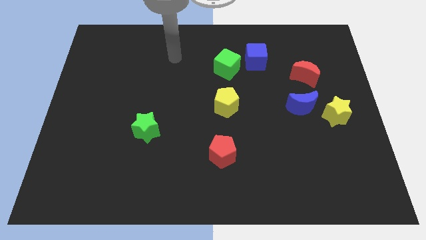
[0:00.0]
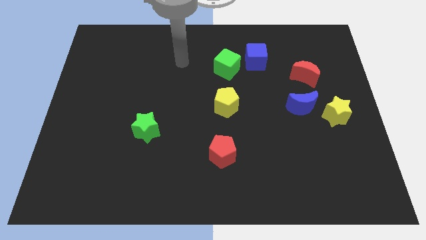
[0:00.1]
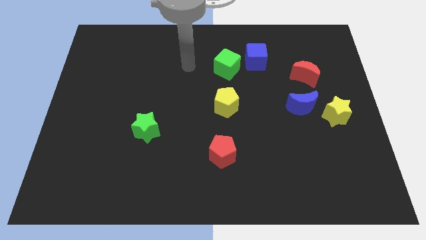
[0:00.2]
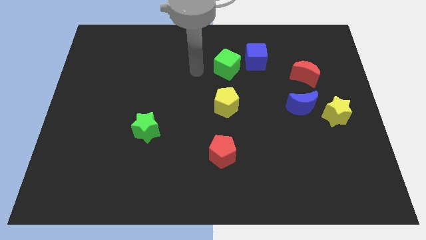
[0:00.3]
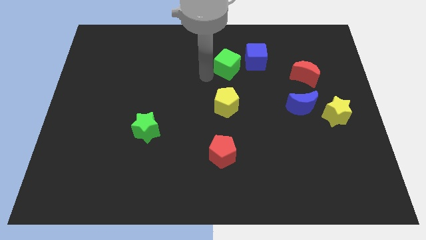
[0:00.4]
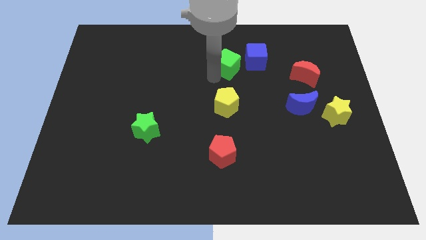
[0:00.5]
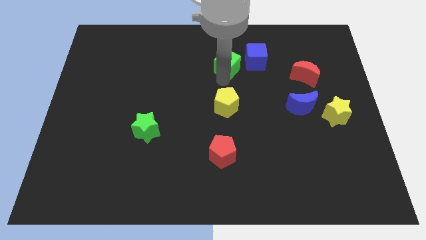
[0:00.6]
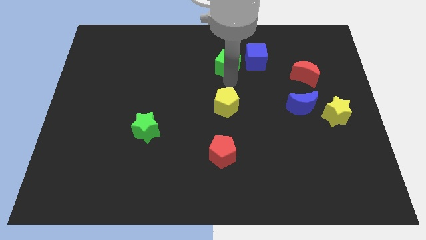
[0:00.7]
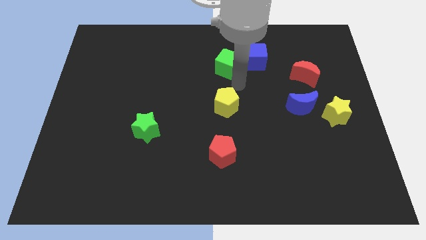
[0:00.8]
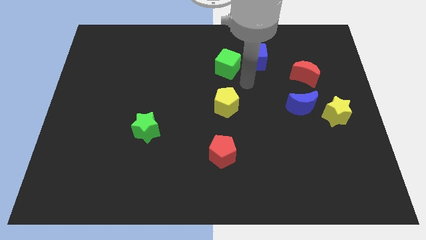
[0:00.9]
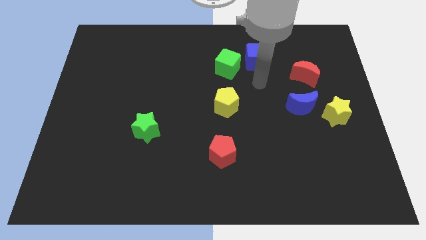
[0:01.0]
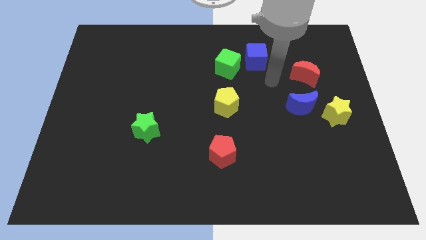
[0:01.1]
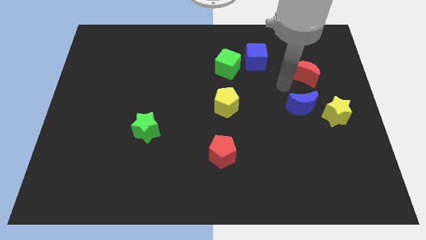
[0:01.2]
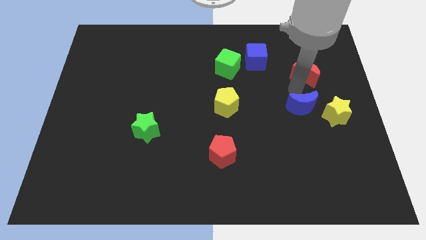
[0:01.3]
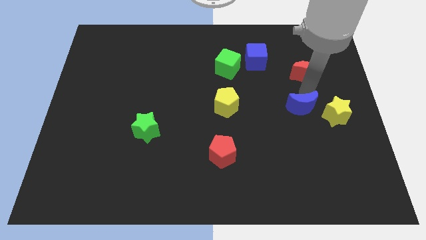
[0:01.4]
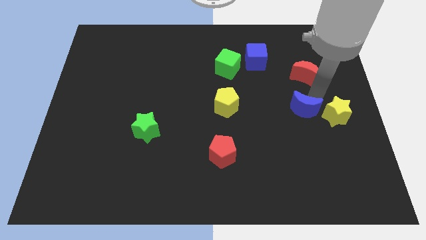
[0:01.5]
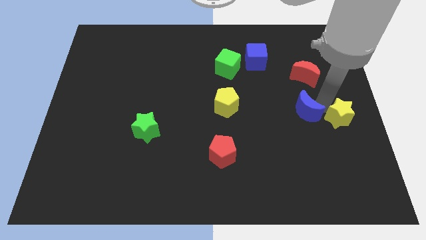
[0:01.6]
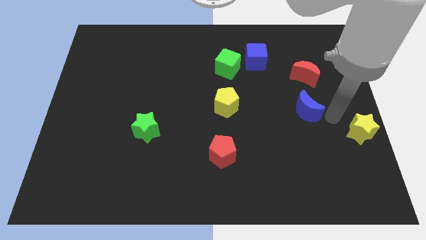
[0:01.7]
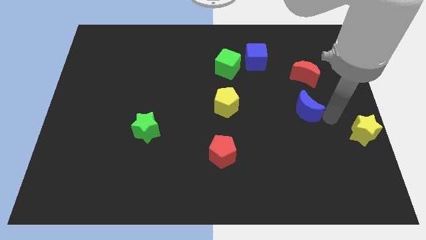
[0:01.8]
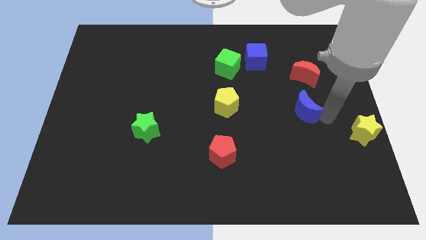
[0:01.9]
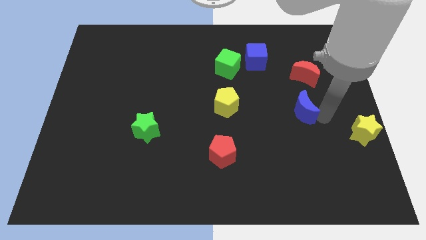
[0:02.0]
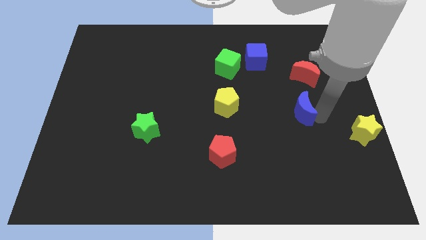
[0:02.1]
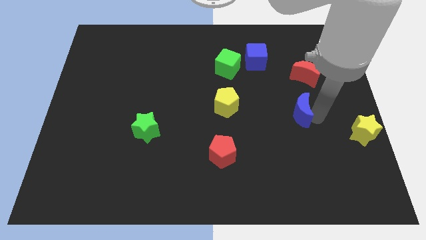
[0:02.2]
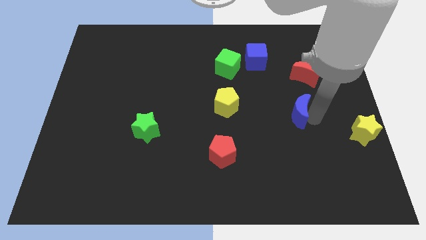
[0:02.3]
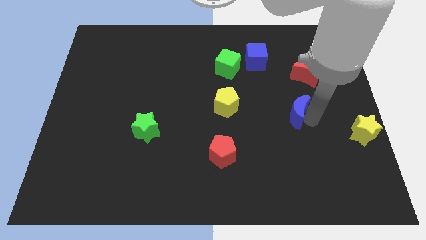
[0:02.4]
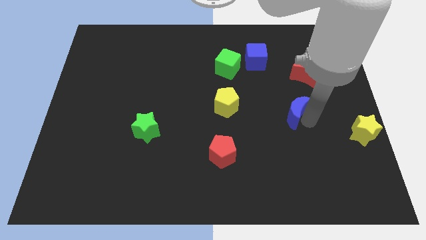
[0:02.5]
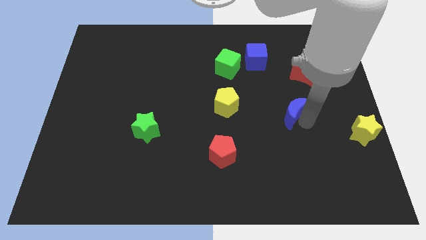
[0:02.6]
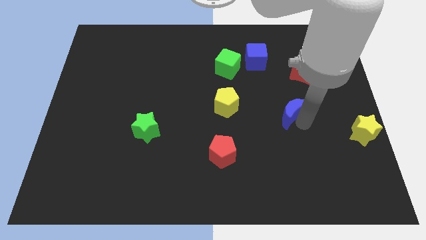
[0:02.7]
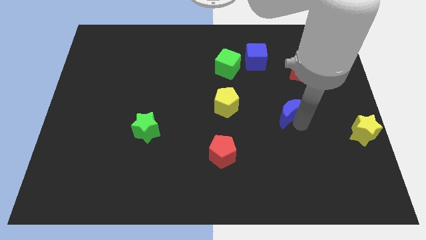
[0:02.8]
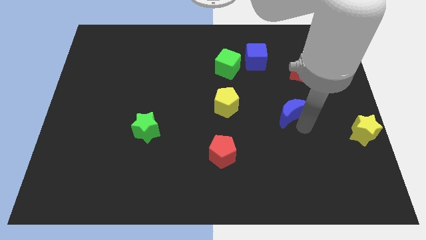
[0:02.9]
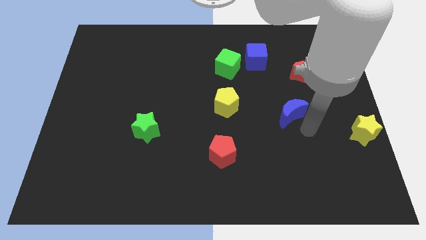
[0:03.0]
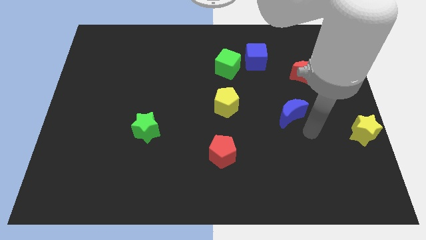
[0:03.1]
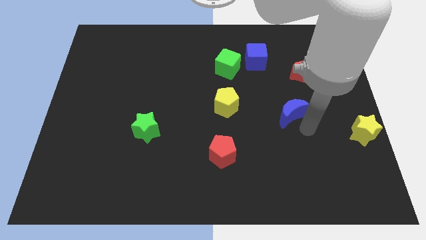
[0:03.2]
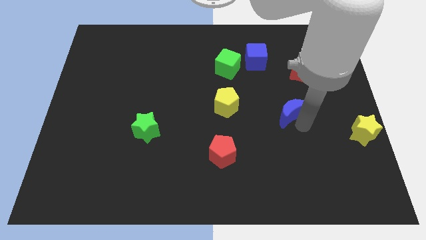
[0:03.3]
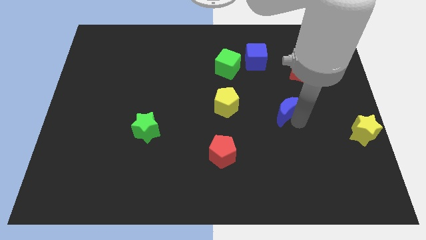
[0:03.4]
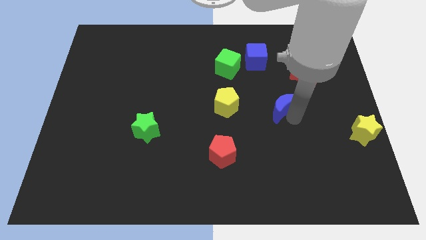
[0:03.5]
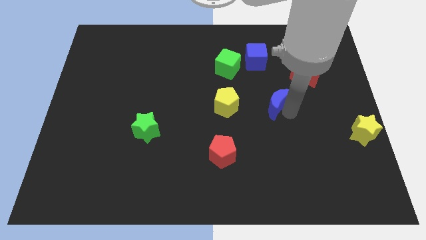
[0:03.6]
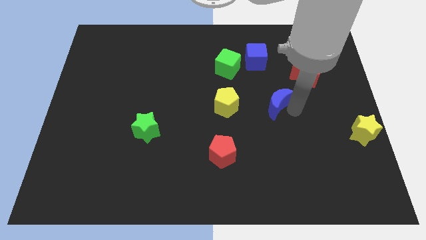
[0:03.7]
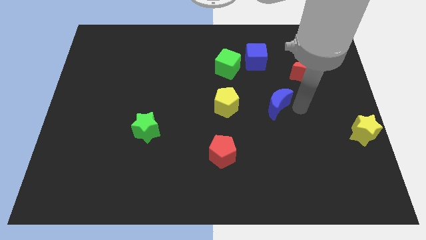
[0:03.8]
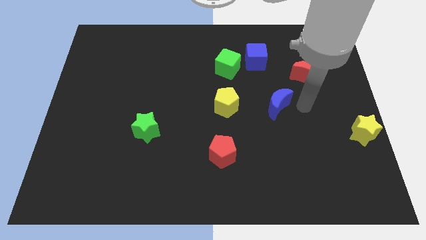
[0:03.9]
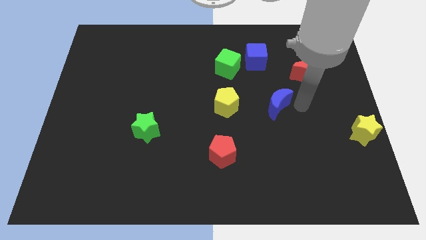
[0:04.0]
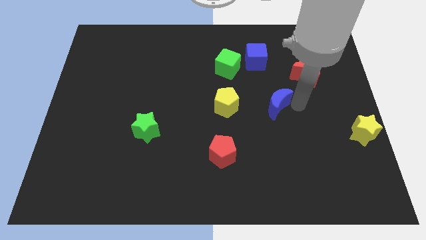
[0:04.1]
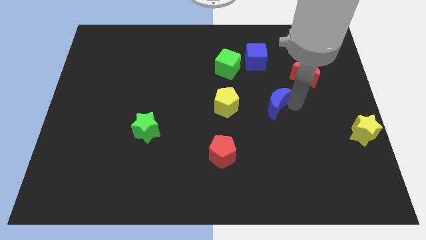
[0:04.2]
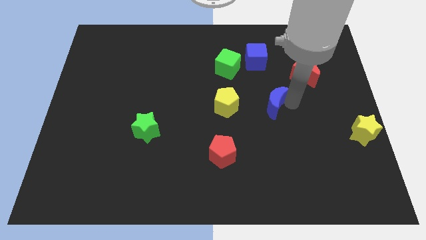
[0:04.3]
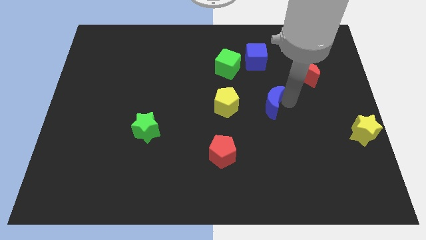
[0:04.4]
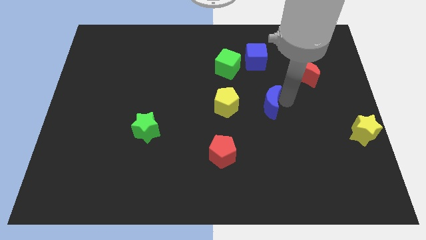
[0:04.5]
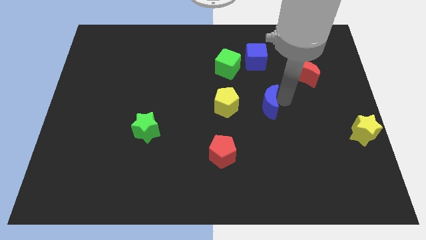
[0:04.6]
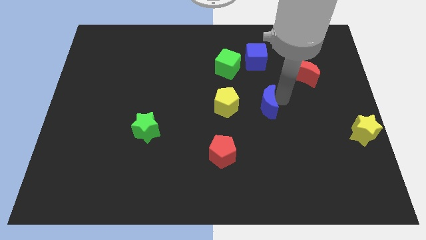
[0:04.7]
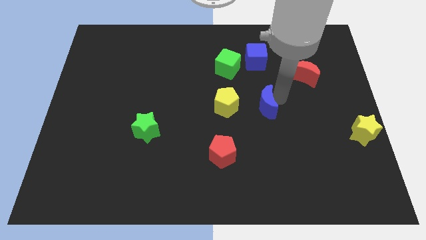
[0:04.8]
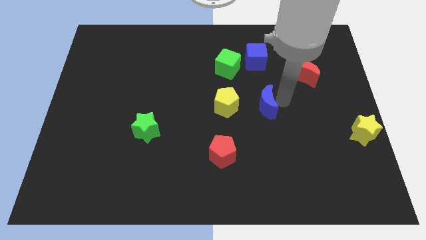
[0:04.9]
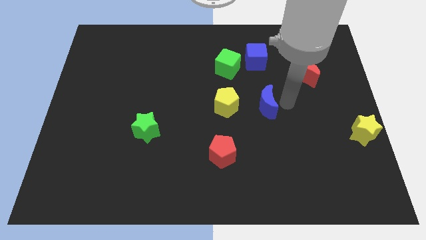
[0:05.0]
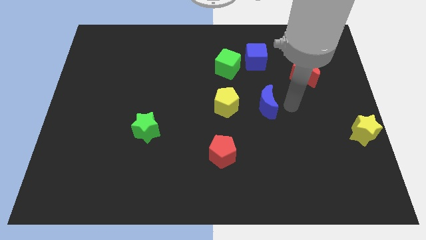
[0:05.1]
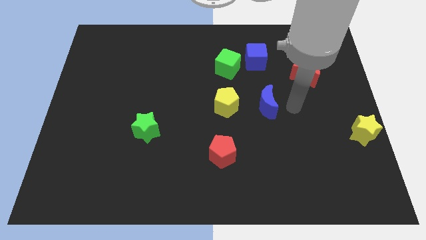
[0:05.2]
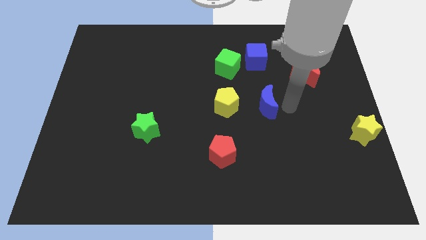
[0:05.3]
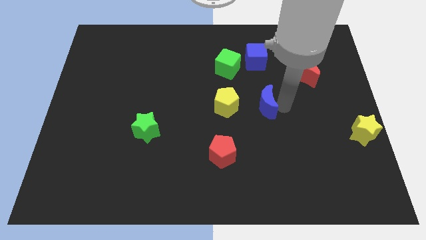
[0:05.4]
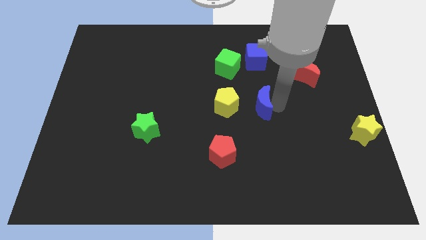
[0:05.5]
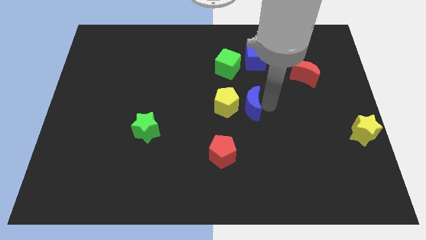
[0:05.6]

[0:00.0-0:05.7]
slide the blue moon next to the yellow pentagon

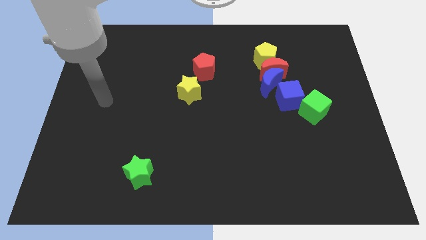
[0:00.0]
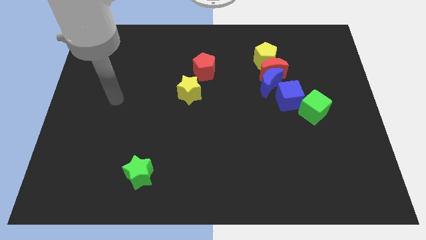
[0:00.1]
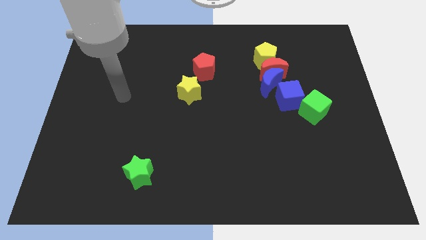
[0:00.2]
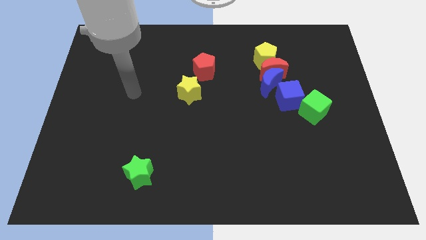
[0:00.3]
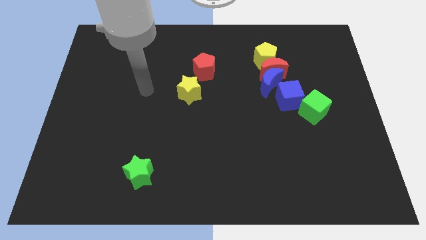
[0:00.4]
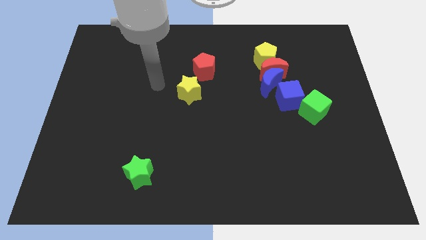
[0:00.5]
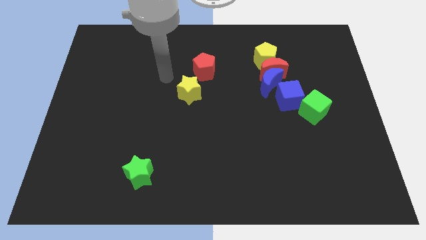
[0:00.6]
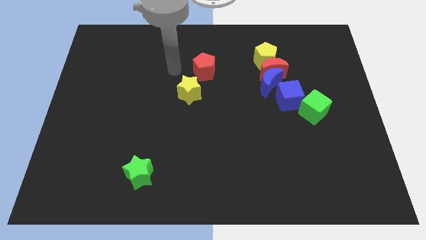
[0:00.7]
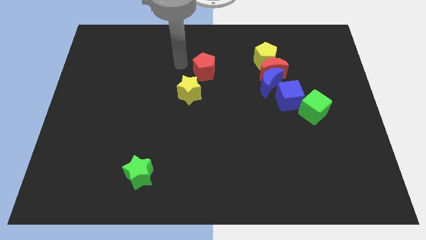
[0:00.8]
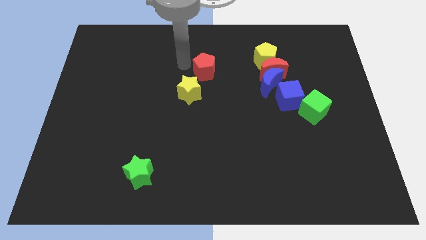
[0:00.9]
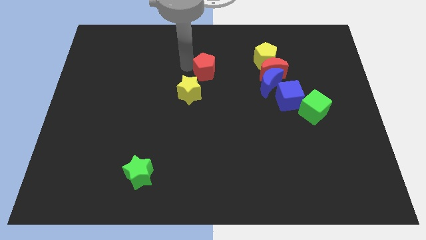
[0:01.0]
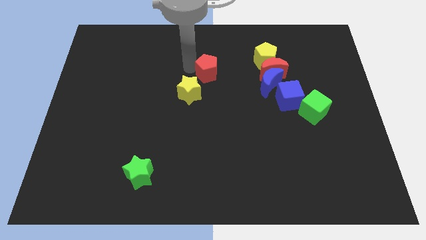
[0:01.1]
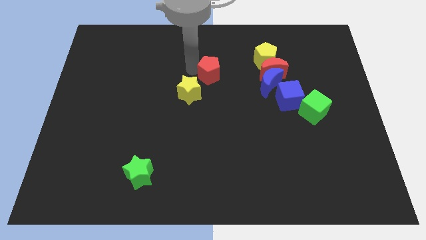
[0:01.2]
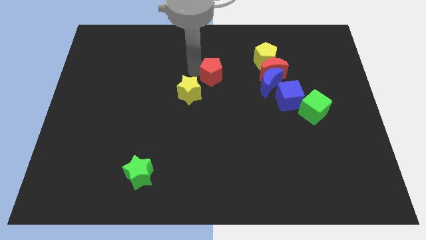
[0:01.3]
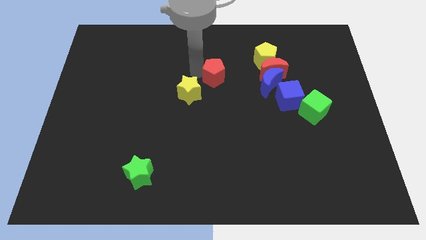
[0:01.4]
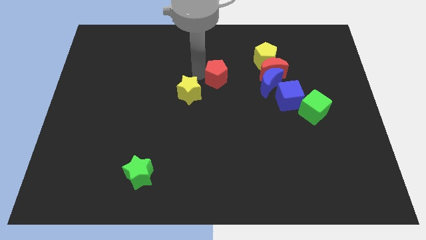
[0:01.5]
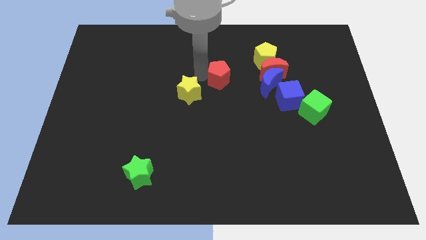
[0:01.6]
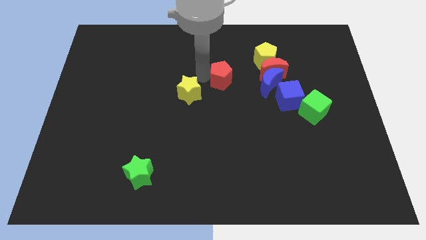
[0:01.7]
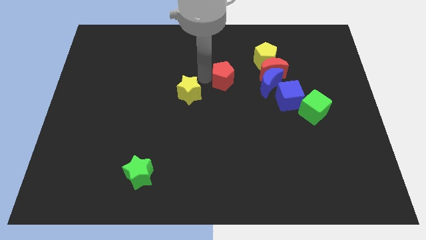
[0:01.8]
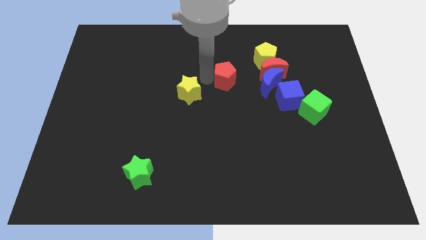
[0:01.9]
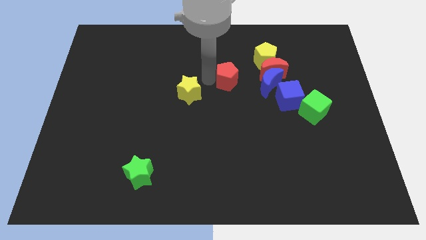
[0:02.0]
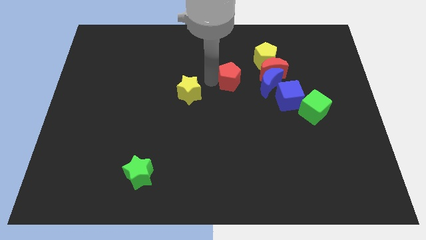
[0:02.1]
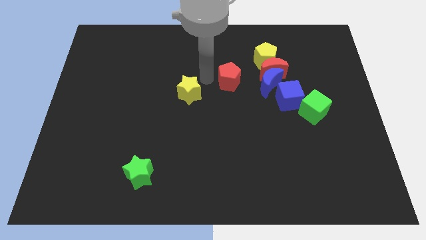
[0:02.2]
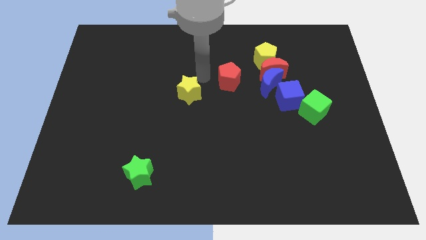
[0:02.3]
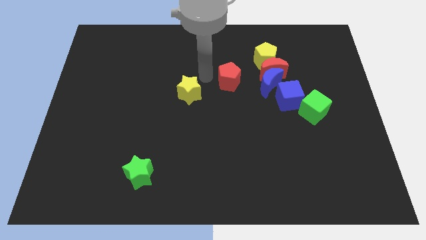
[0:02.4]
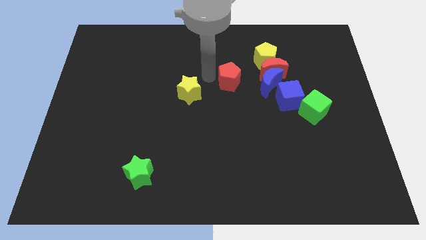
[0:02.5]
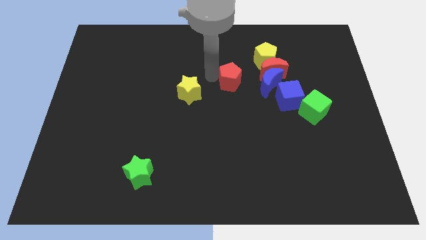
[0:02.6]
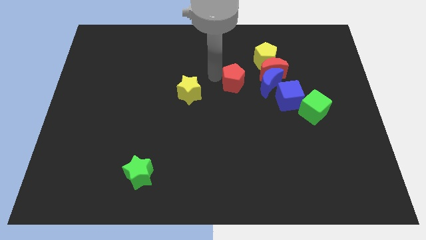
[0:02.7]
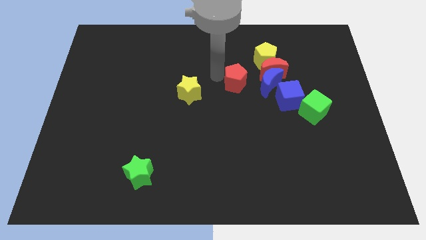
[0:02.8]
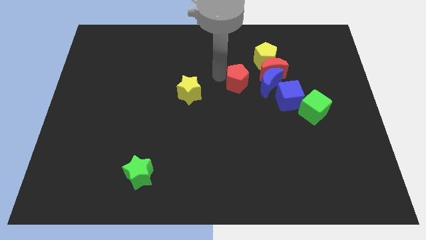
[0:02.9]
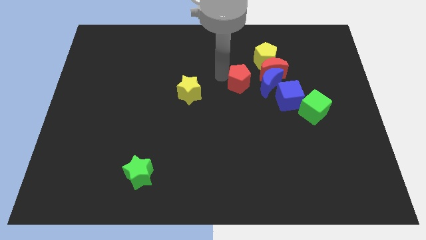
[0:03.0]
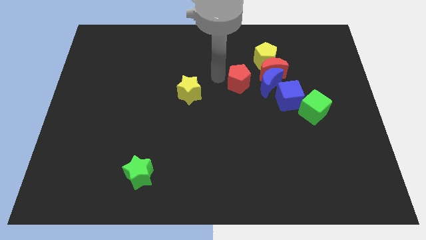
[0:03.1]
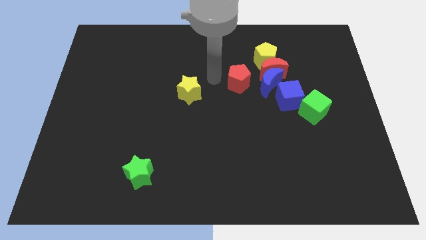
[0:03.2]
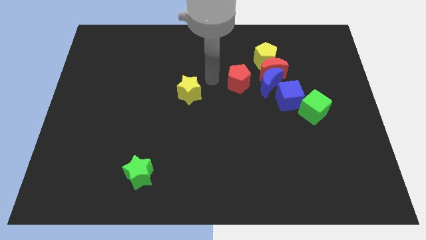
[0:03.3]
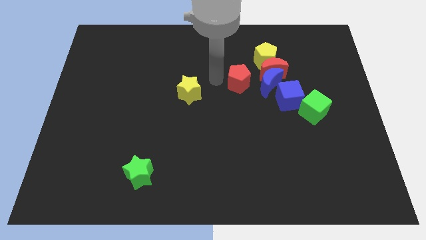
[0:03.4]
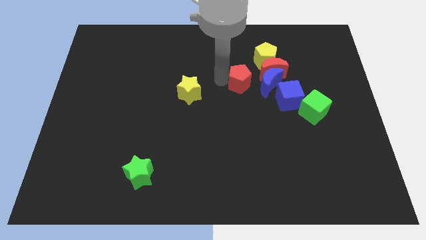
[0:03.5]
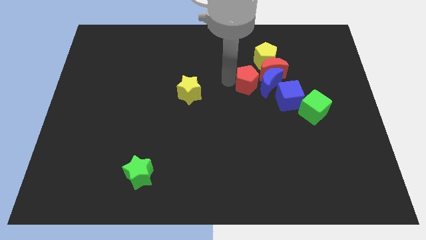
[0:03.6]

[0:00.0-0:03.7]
slide the red pentagon close to the blue moon
